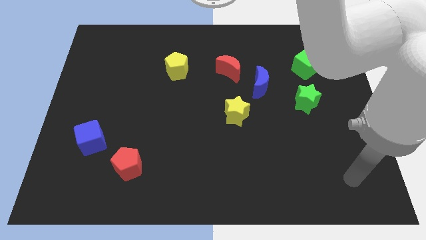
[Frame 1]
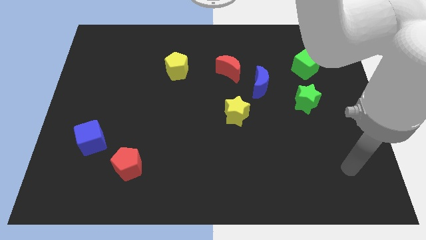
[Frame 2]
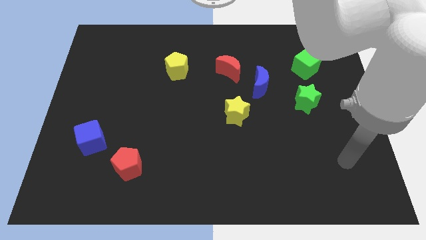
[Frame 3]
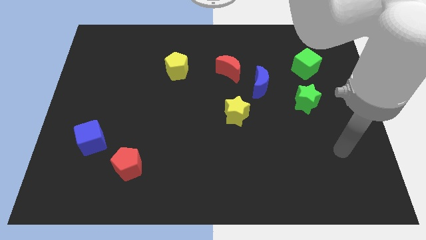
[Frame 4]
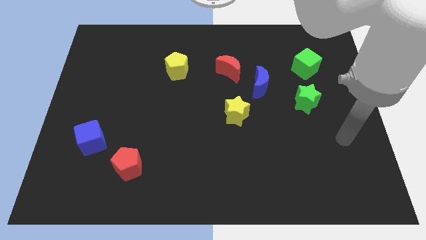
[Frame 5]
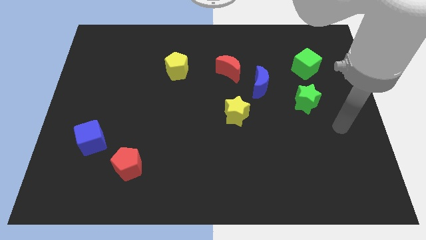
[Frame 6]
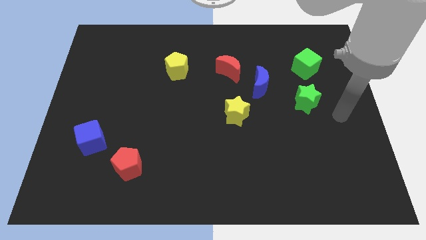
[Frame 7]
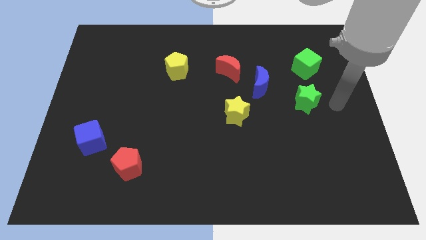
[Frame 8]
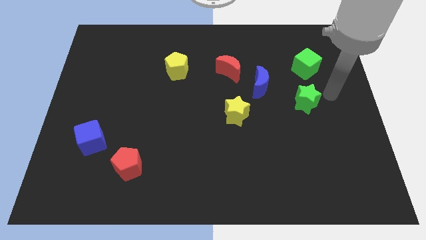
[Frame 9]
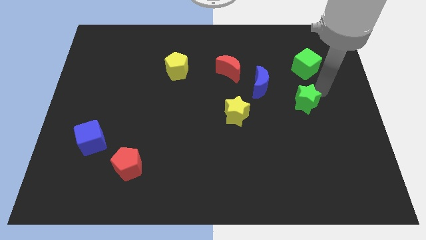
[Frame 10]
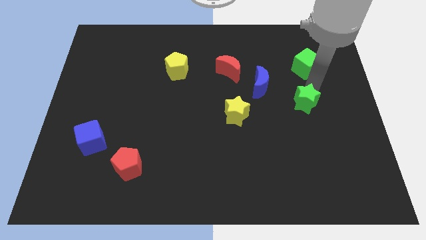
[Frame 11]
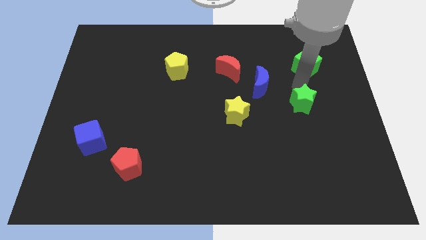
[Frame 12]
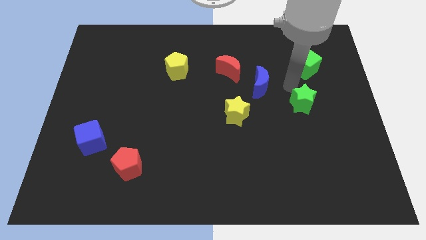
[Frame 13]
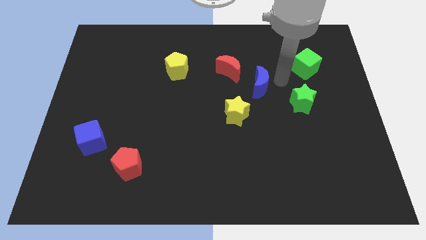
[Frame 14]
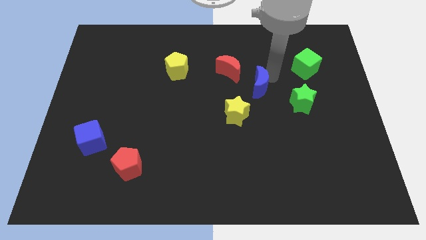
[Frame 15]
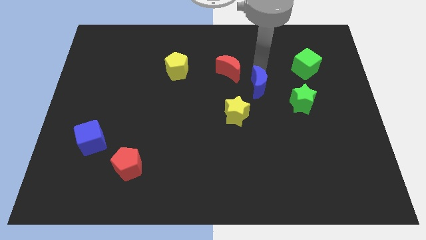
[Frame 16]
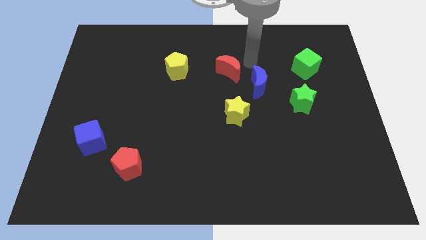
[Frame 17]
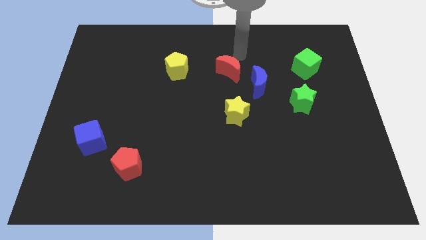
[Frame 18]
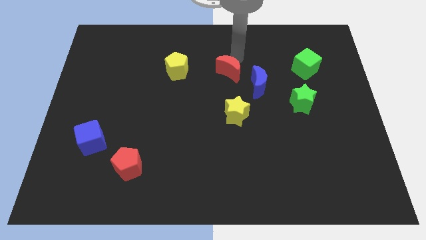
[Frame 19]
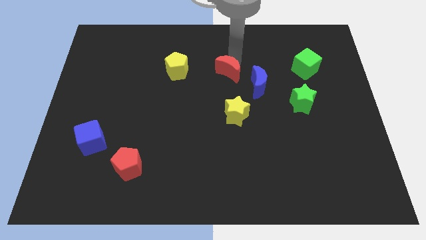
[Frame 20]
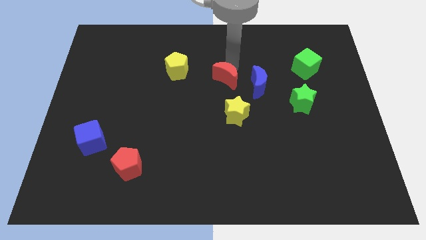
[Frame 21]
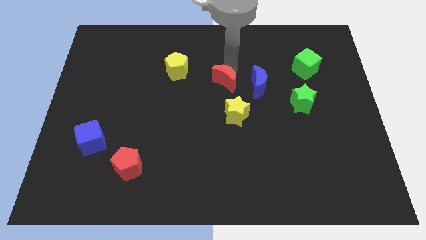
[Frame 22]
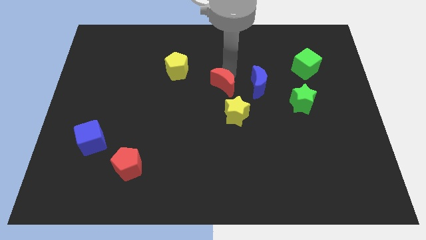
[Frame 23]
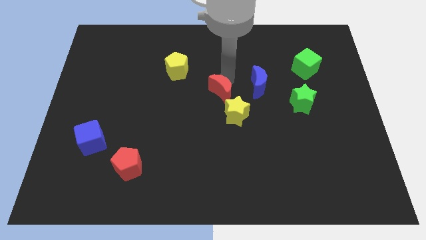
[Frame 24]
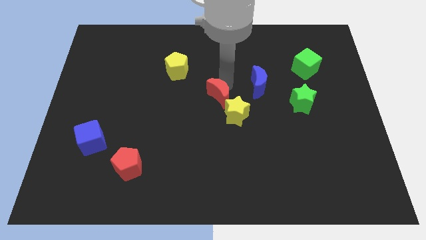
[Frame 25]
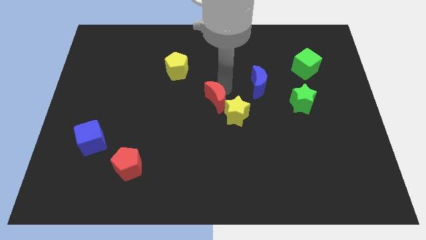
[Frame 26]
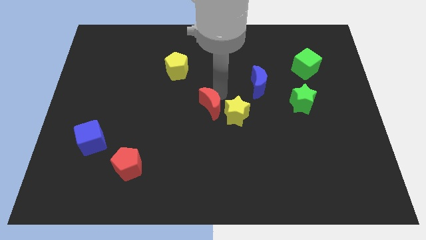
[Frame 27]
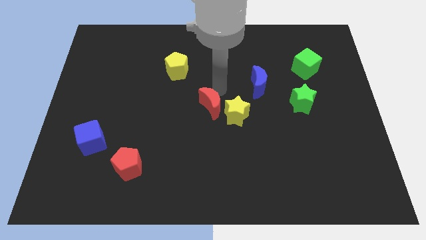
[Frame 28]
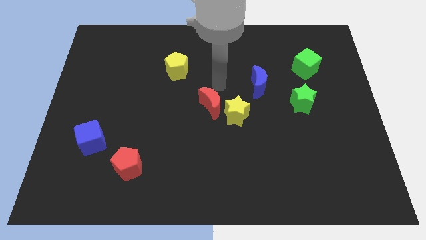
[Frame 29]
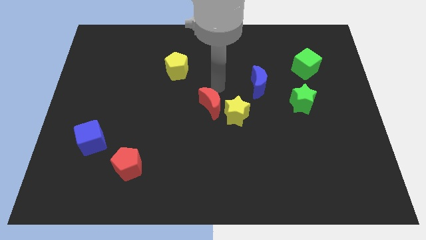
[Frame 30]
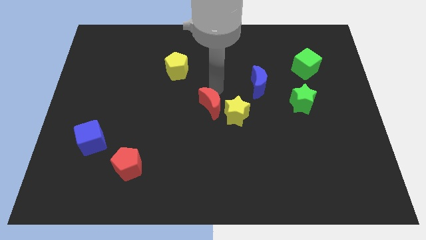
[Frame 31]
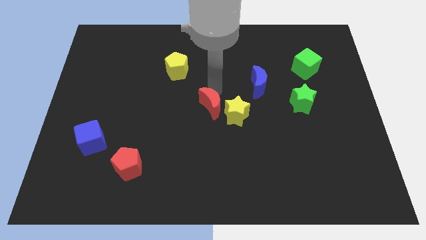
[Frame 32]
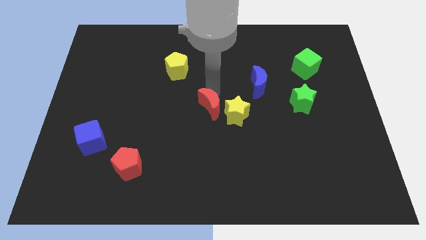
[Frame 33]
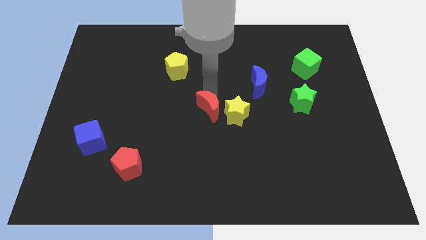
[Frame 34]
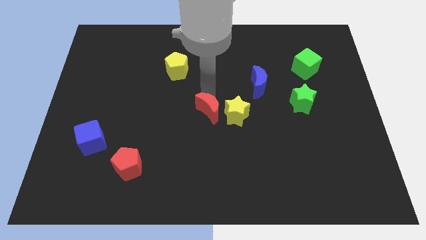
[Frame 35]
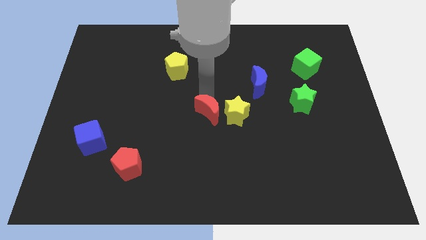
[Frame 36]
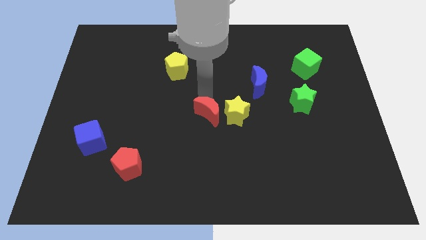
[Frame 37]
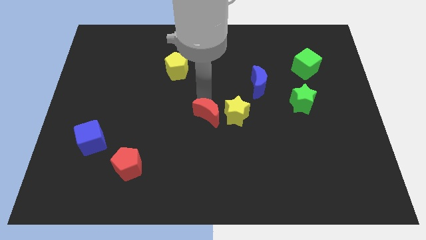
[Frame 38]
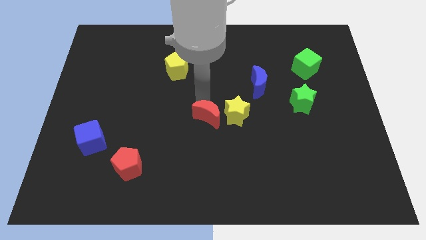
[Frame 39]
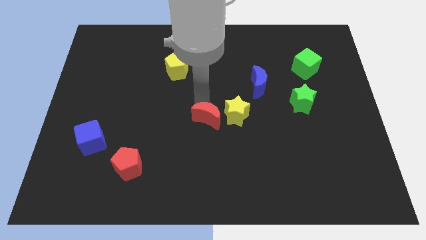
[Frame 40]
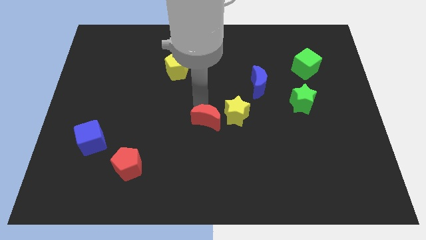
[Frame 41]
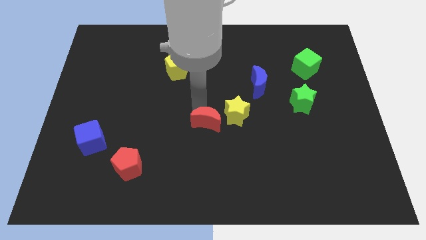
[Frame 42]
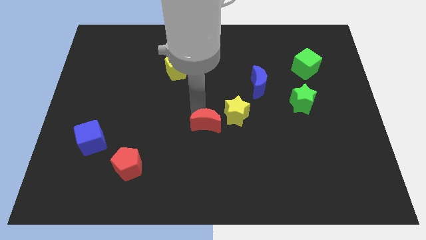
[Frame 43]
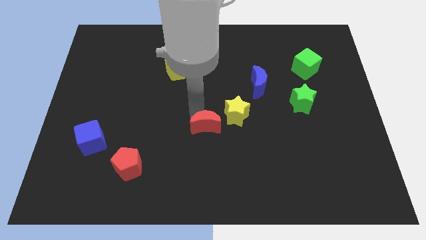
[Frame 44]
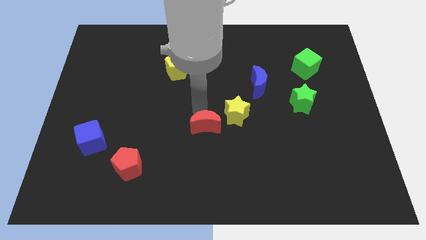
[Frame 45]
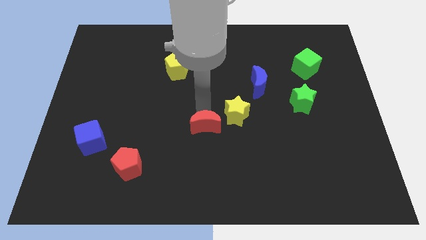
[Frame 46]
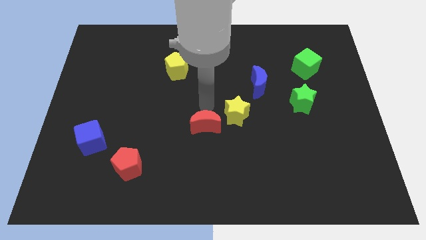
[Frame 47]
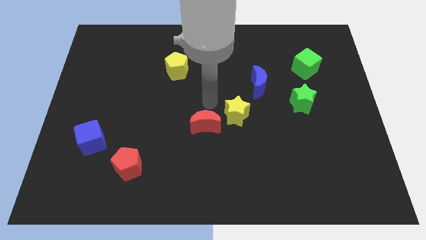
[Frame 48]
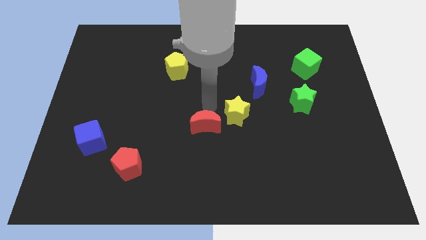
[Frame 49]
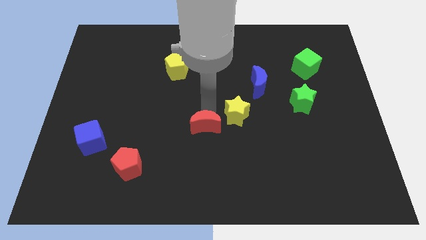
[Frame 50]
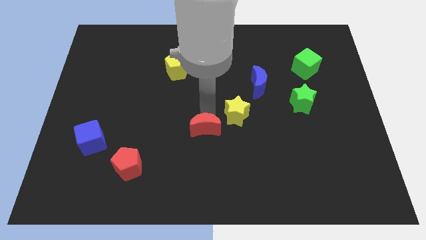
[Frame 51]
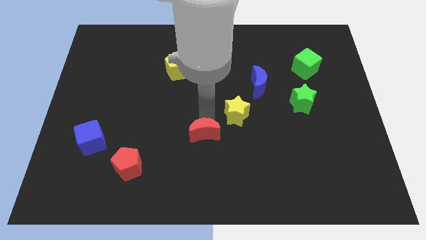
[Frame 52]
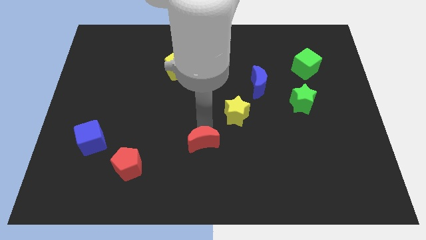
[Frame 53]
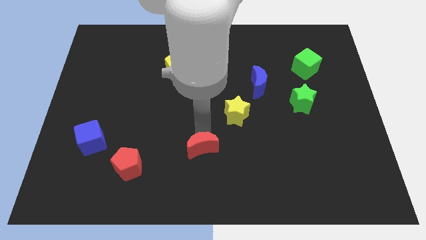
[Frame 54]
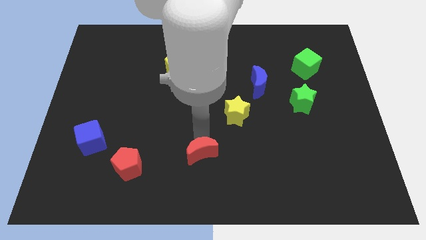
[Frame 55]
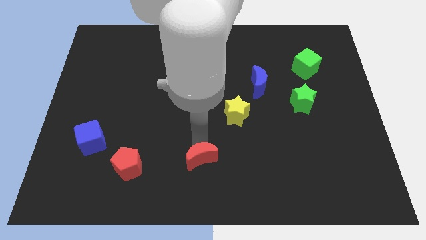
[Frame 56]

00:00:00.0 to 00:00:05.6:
push the red moon to the bottom side

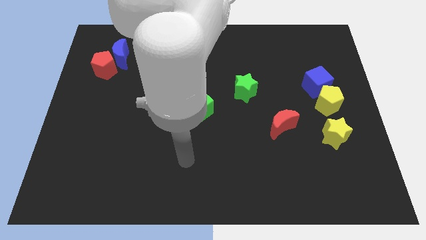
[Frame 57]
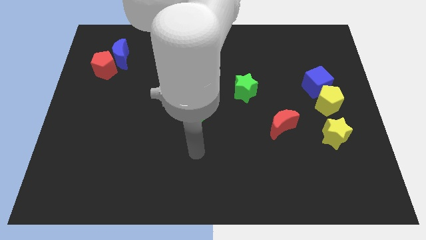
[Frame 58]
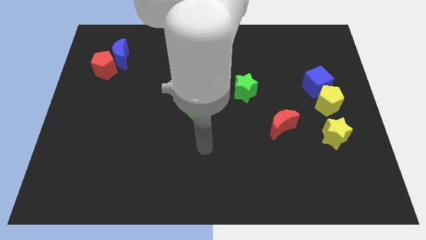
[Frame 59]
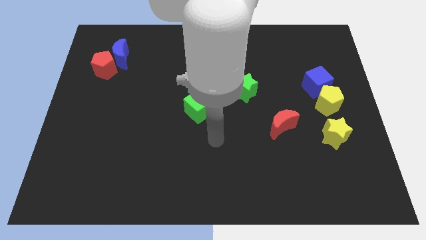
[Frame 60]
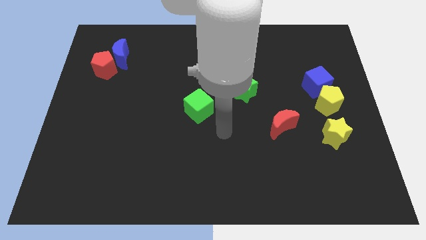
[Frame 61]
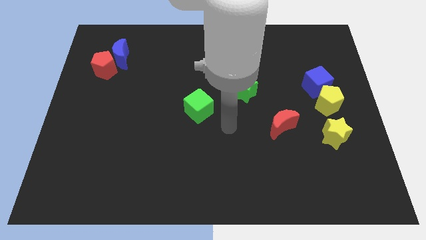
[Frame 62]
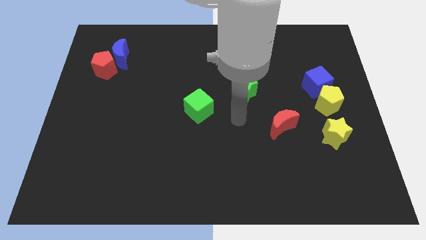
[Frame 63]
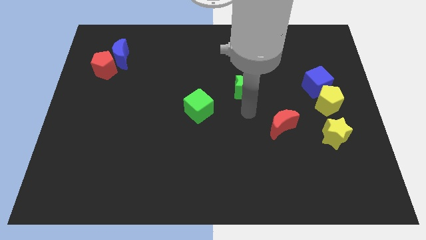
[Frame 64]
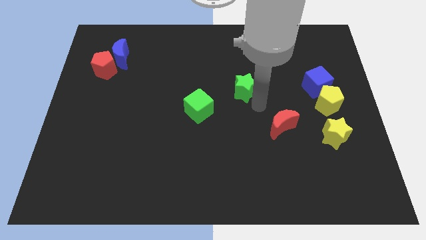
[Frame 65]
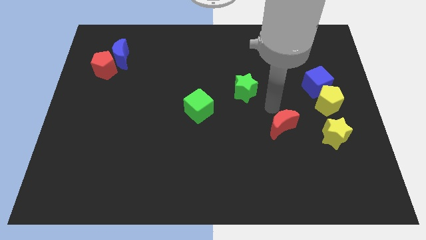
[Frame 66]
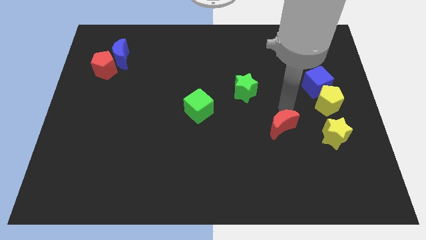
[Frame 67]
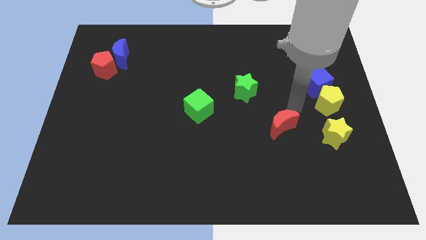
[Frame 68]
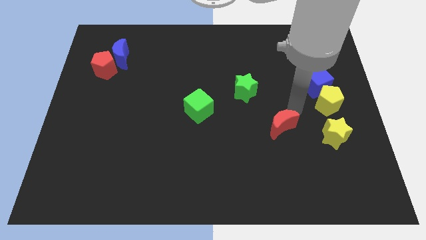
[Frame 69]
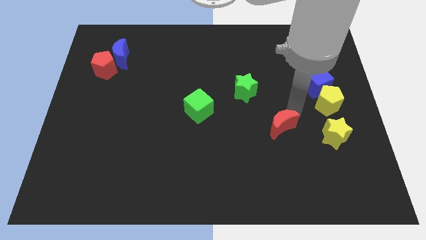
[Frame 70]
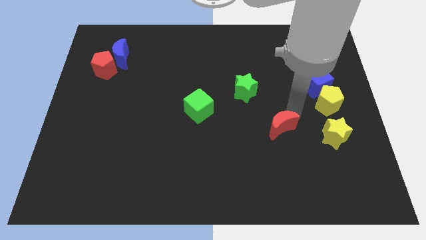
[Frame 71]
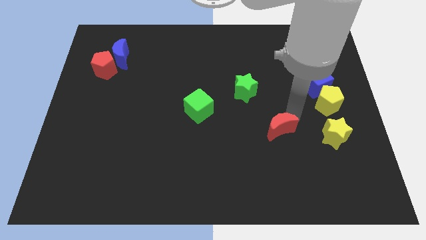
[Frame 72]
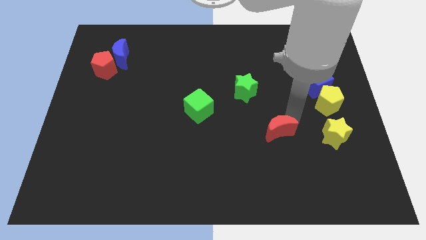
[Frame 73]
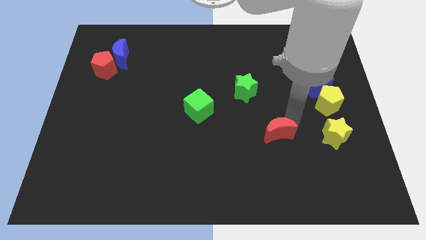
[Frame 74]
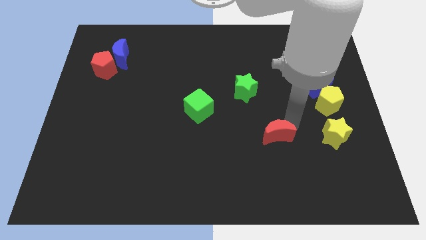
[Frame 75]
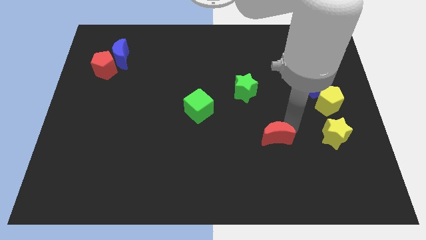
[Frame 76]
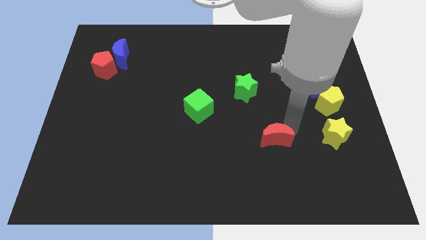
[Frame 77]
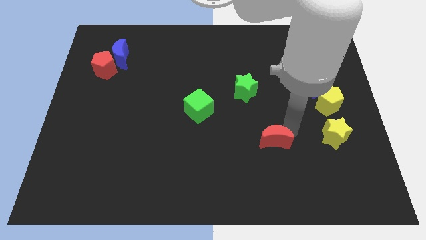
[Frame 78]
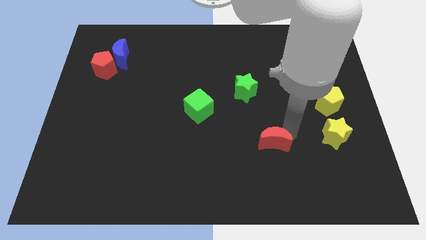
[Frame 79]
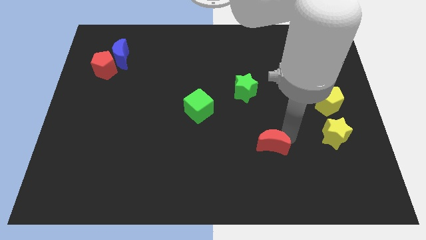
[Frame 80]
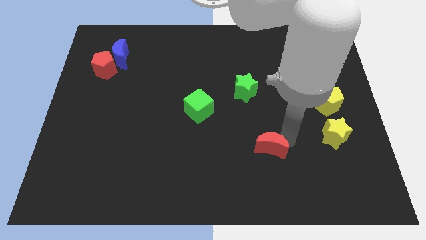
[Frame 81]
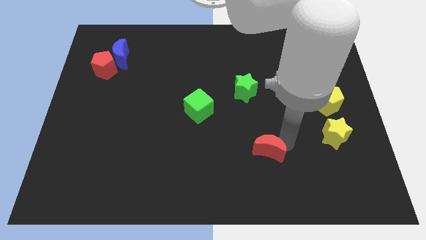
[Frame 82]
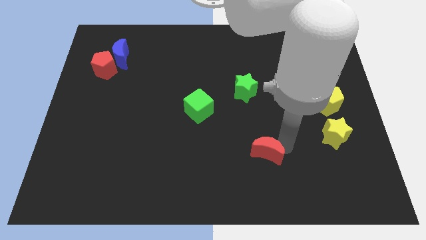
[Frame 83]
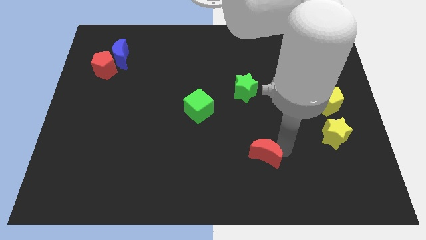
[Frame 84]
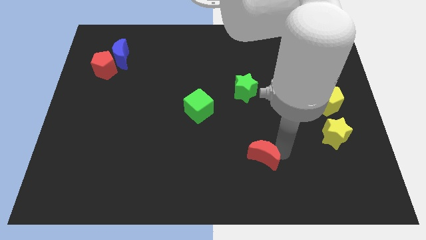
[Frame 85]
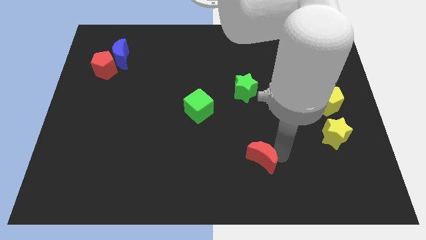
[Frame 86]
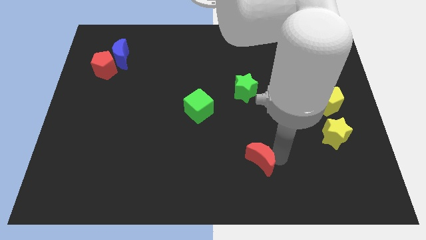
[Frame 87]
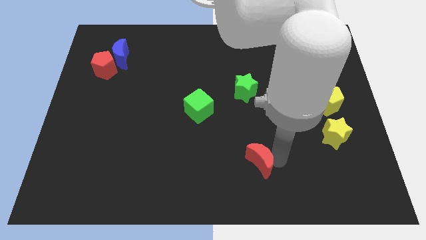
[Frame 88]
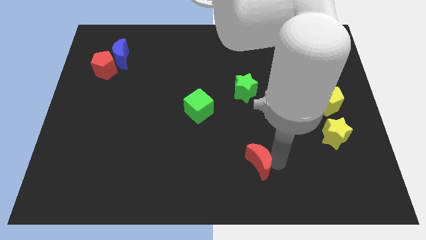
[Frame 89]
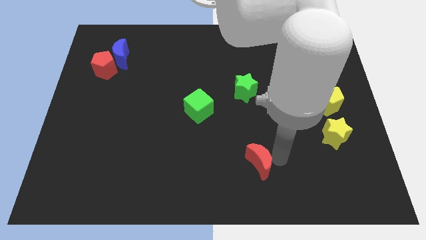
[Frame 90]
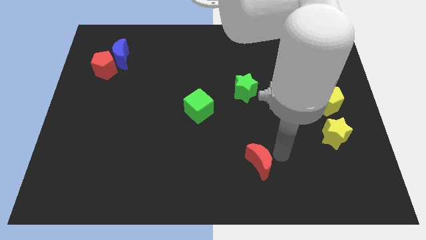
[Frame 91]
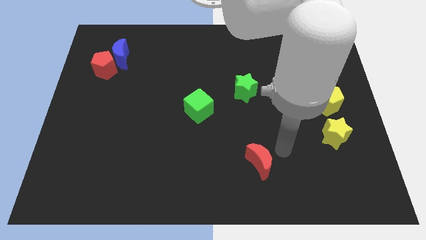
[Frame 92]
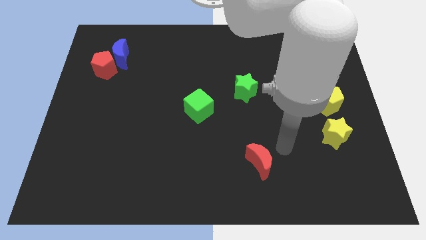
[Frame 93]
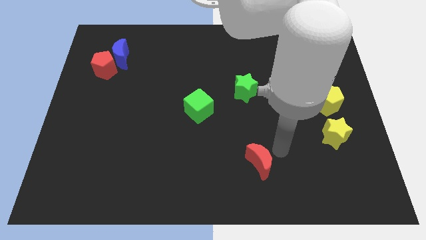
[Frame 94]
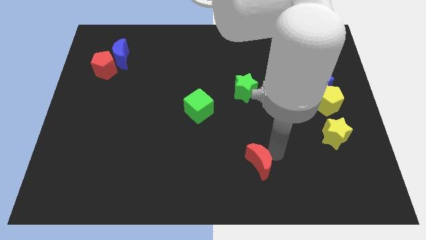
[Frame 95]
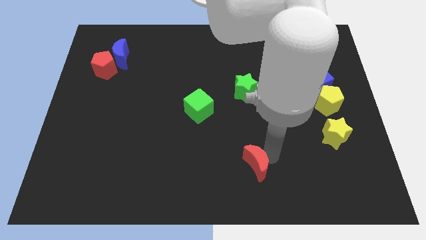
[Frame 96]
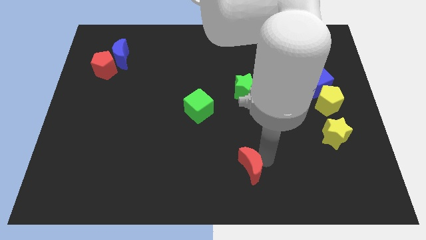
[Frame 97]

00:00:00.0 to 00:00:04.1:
move the red moon to the bottom side
